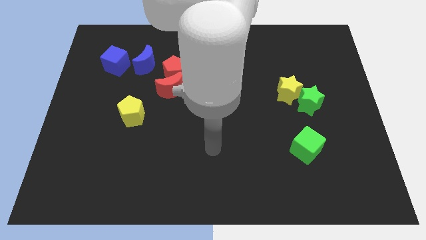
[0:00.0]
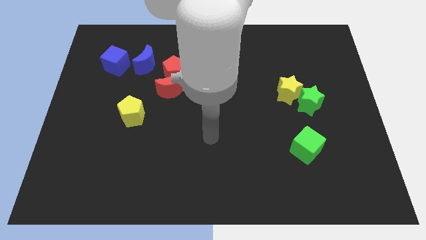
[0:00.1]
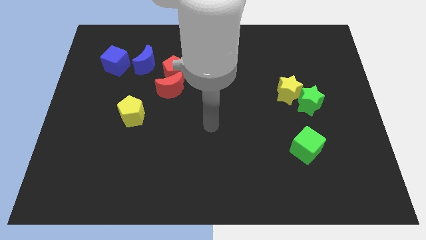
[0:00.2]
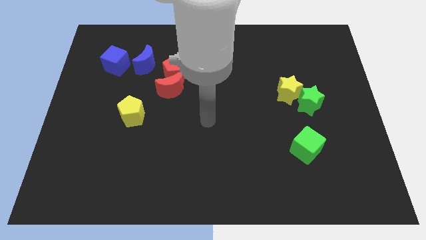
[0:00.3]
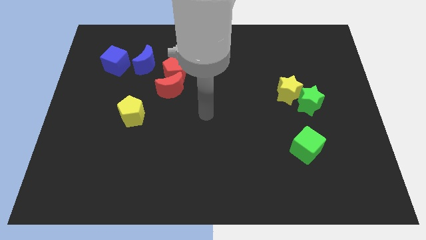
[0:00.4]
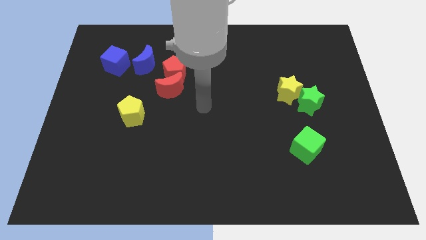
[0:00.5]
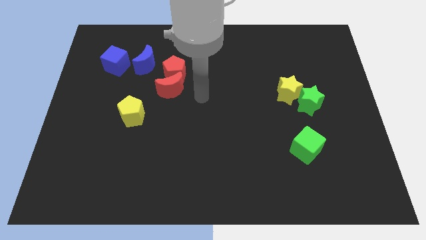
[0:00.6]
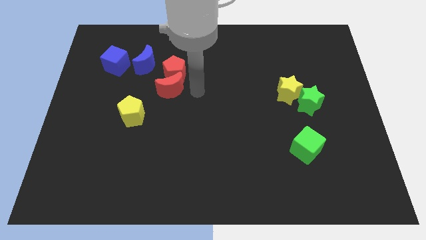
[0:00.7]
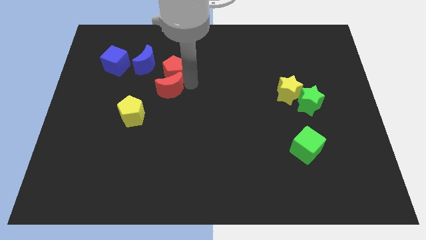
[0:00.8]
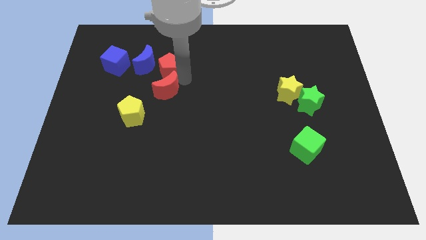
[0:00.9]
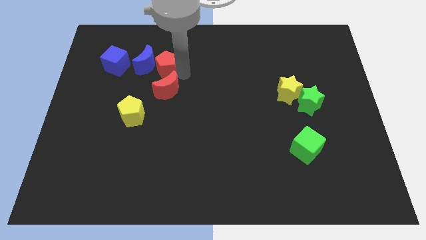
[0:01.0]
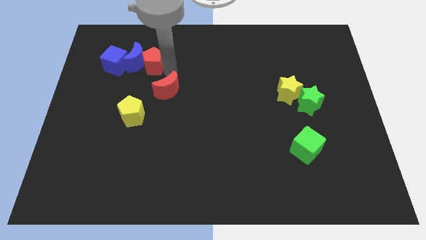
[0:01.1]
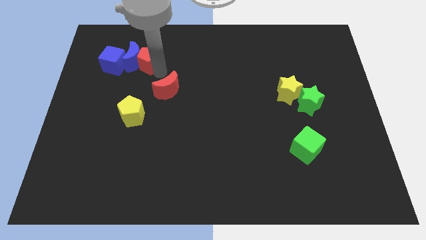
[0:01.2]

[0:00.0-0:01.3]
move the red moon away from the red pentagon

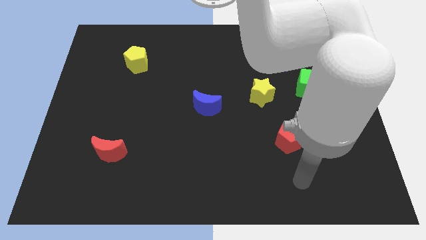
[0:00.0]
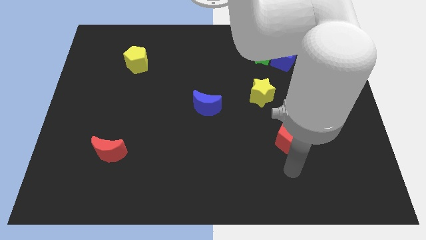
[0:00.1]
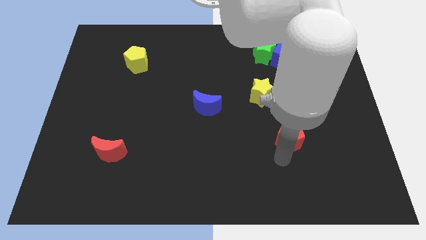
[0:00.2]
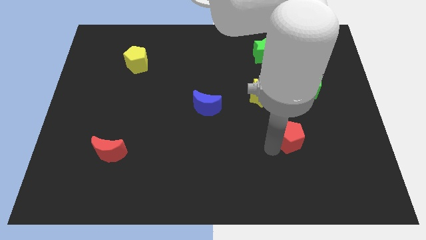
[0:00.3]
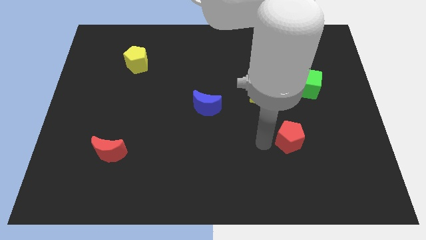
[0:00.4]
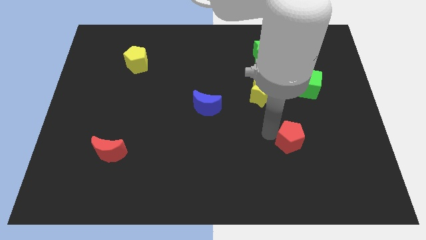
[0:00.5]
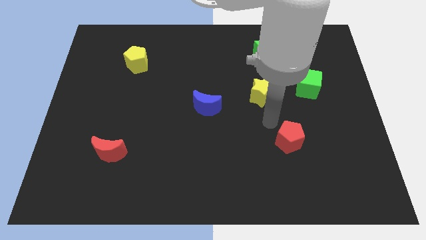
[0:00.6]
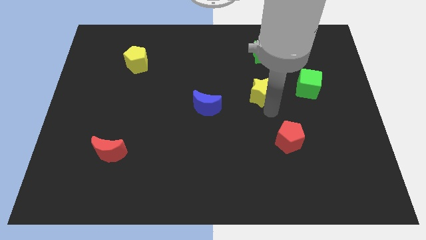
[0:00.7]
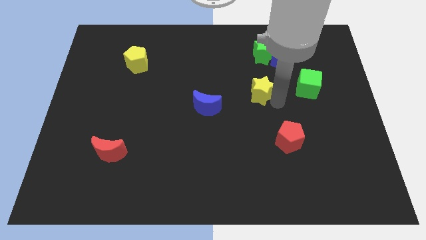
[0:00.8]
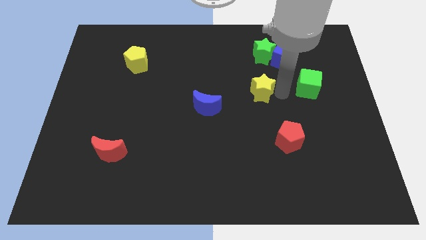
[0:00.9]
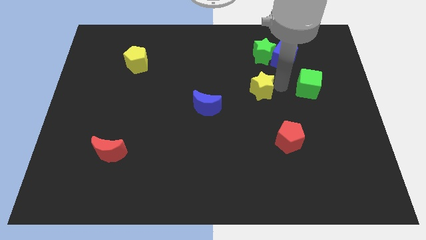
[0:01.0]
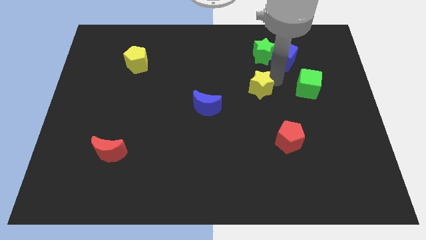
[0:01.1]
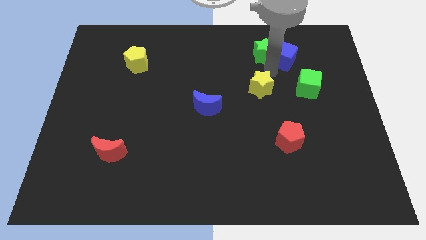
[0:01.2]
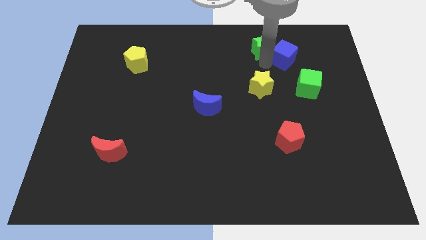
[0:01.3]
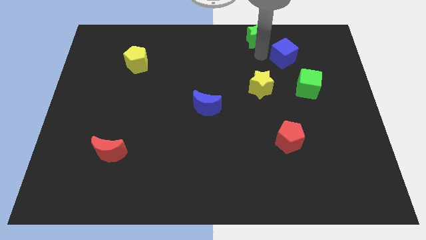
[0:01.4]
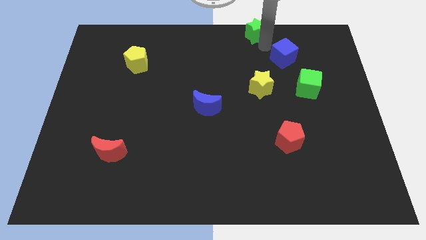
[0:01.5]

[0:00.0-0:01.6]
separate the blue cube from the green star

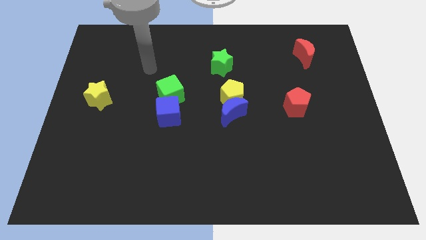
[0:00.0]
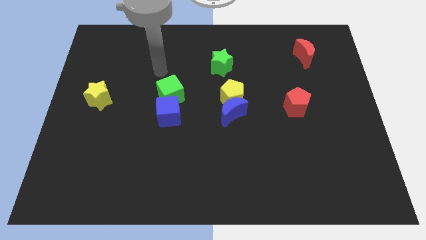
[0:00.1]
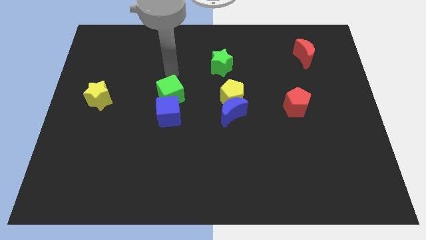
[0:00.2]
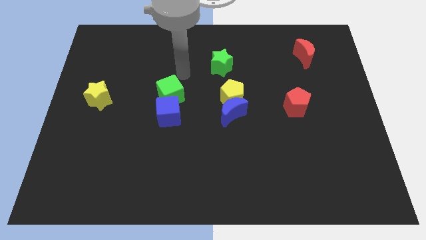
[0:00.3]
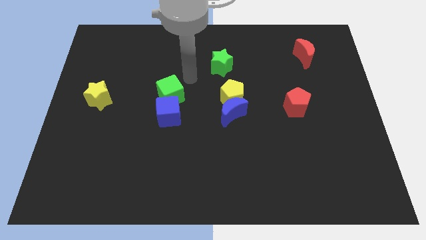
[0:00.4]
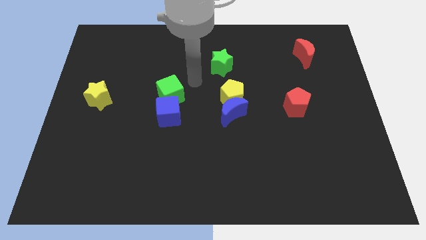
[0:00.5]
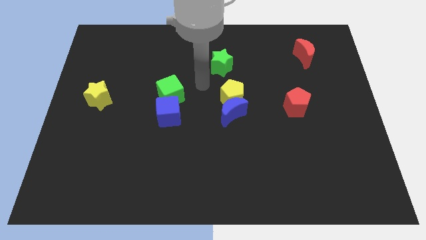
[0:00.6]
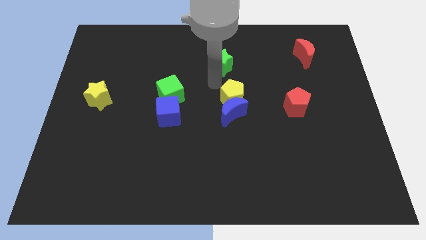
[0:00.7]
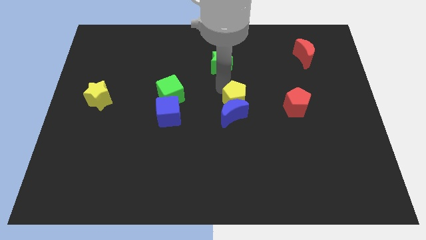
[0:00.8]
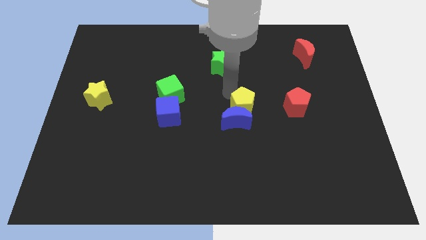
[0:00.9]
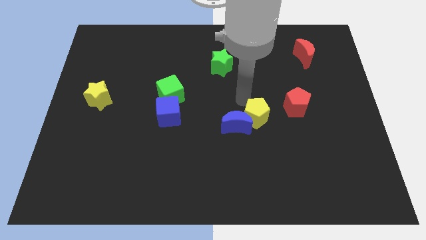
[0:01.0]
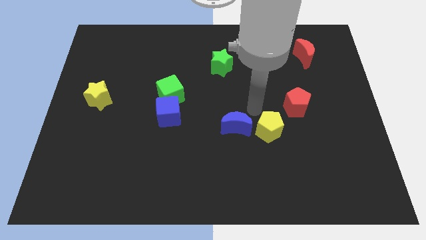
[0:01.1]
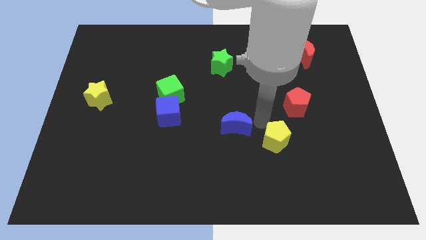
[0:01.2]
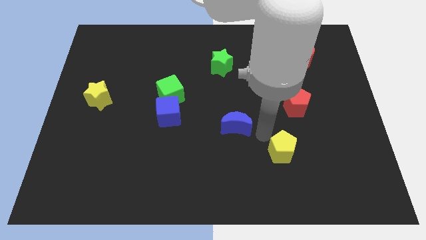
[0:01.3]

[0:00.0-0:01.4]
pull the blue moon apart from the yellow pentagon

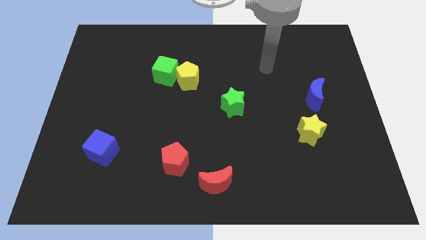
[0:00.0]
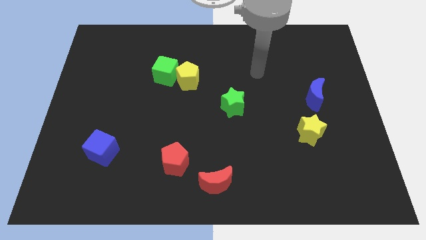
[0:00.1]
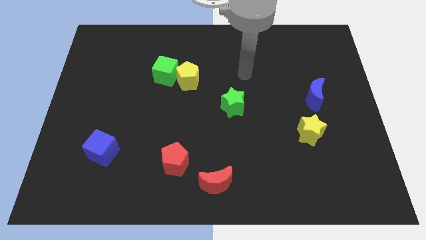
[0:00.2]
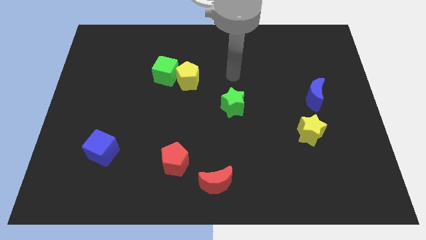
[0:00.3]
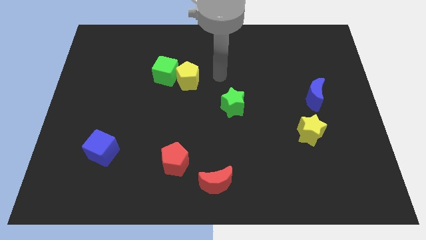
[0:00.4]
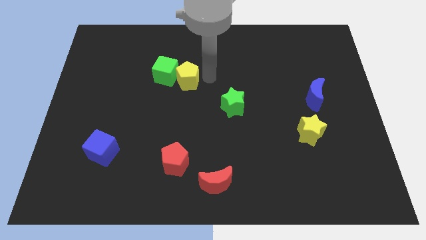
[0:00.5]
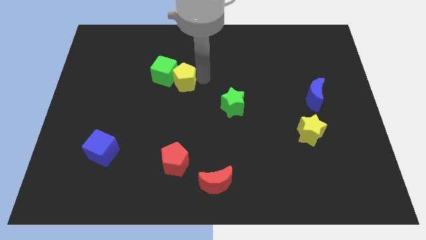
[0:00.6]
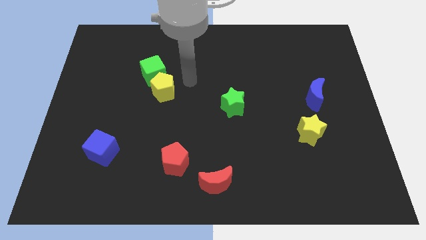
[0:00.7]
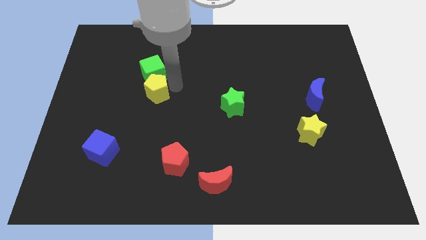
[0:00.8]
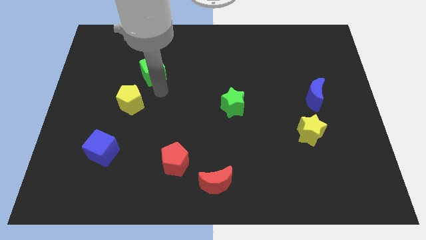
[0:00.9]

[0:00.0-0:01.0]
pull the green cube apart from the yellow pentagon

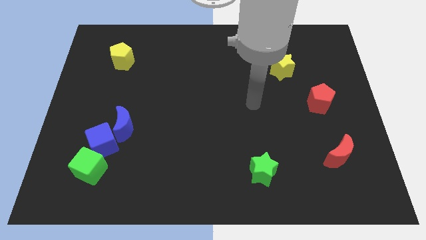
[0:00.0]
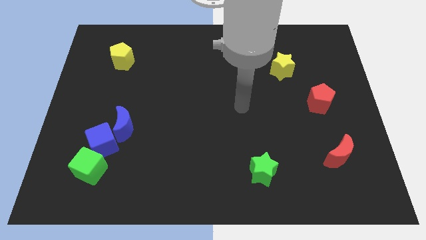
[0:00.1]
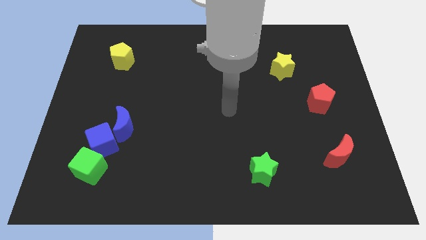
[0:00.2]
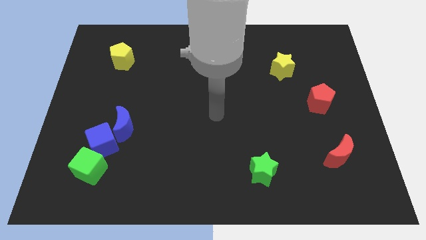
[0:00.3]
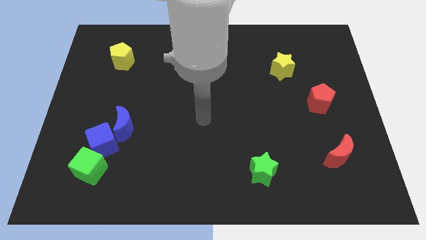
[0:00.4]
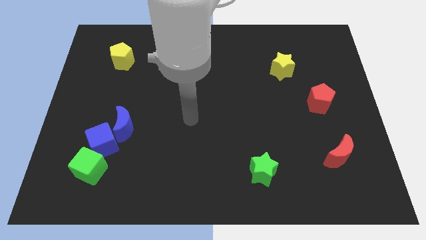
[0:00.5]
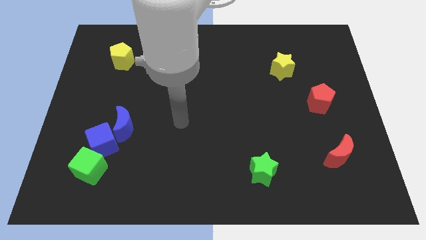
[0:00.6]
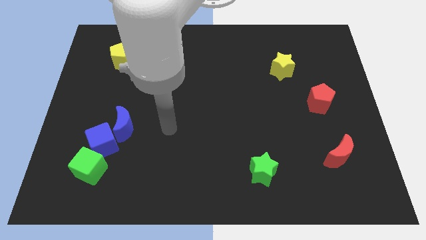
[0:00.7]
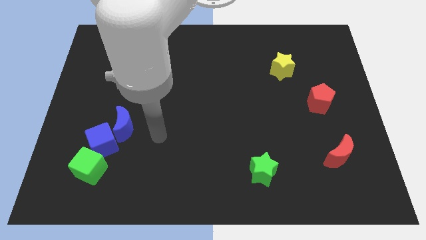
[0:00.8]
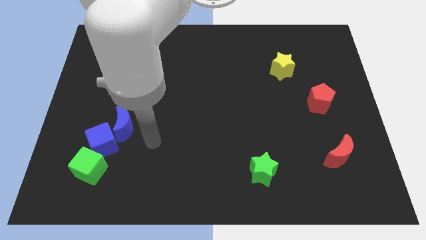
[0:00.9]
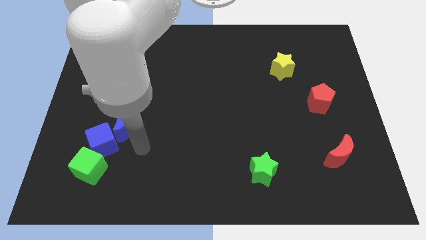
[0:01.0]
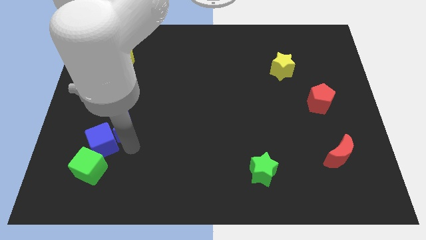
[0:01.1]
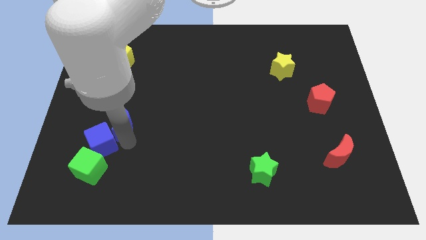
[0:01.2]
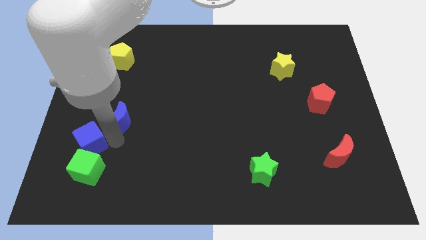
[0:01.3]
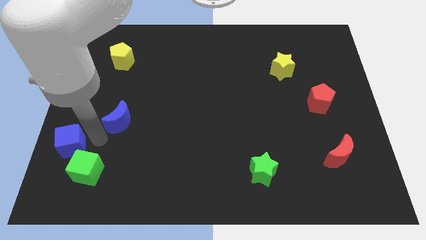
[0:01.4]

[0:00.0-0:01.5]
move the blue moon away from the blue cube

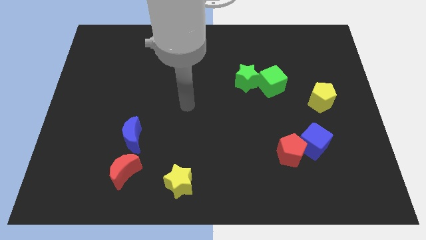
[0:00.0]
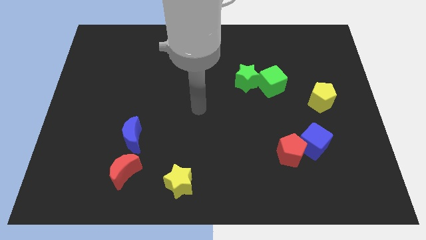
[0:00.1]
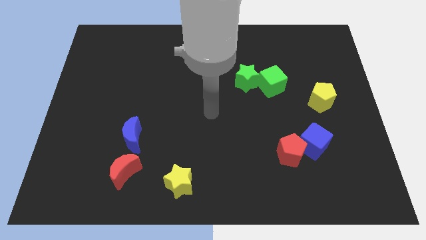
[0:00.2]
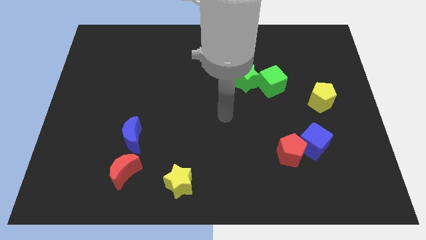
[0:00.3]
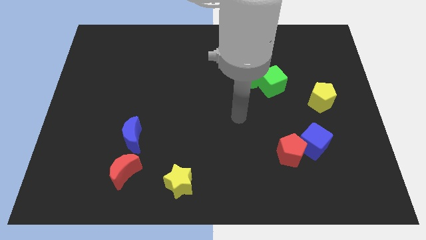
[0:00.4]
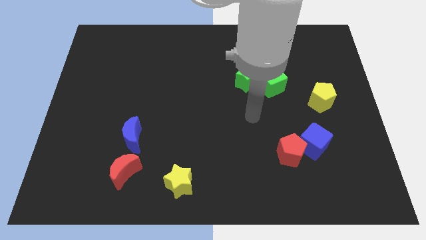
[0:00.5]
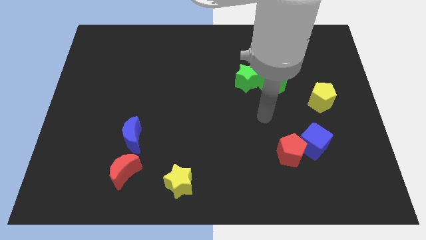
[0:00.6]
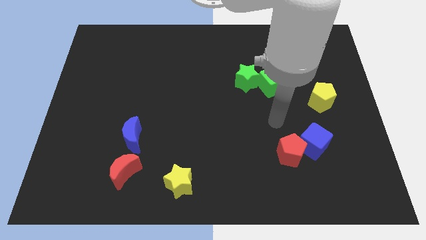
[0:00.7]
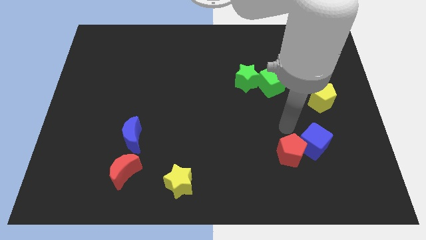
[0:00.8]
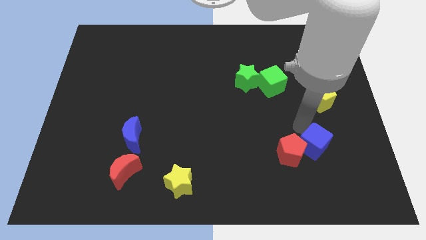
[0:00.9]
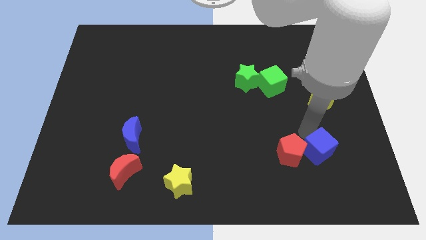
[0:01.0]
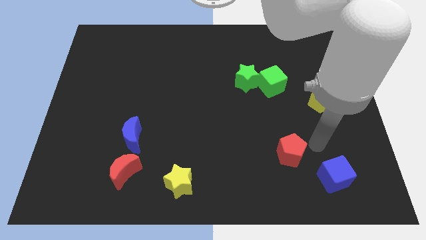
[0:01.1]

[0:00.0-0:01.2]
separate the red pentagon from the blue cube

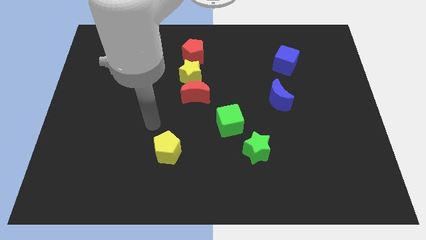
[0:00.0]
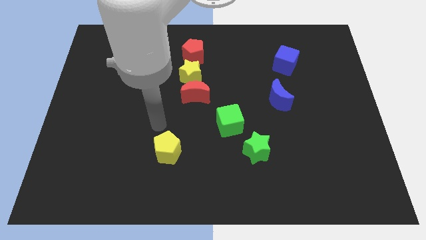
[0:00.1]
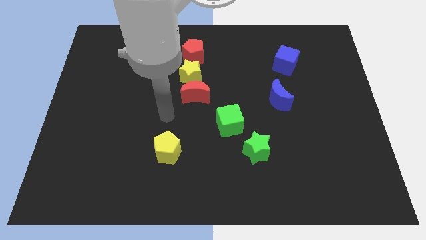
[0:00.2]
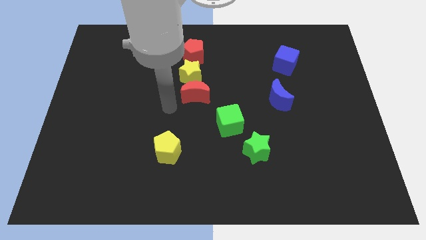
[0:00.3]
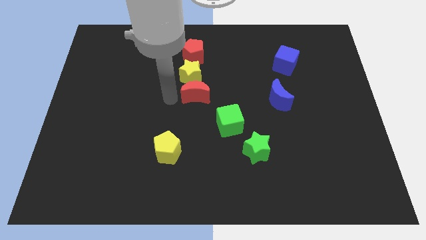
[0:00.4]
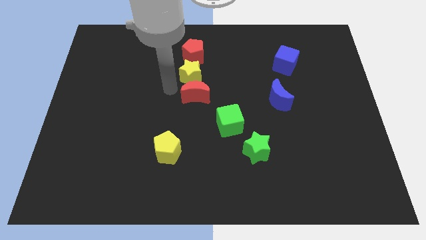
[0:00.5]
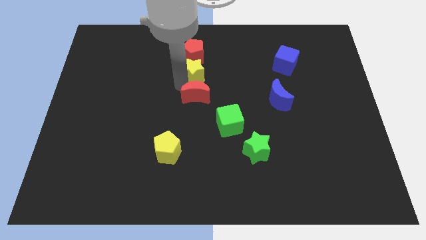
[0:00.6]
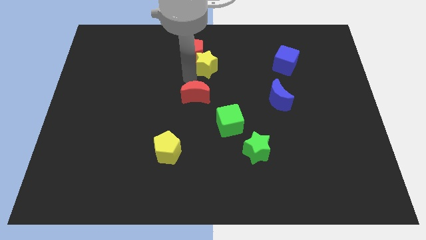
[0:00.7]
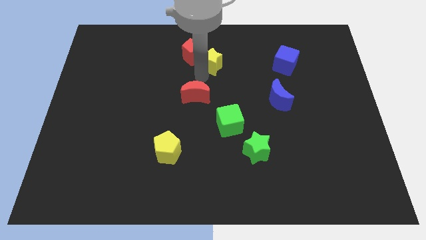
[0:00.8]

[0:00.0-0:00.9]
separate the red moon from the yellow star

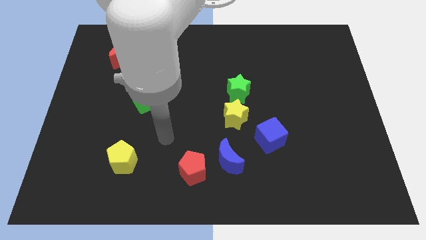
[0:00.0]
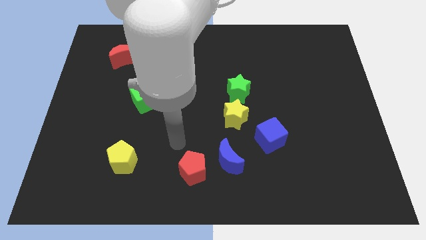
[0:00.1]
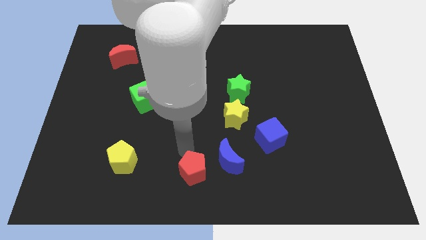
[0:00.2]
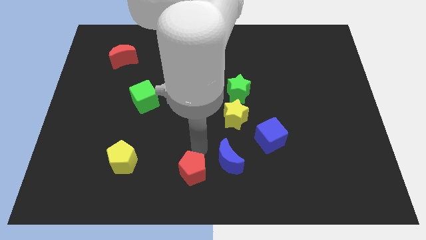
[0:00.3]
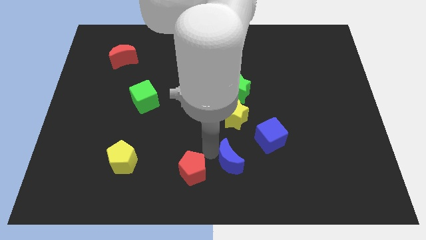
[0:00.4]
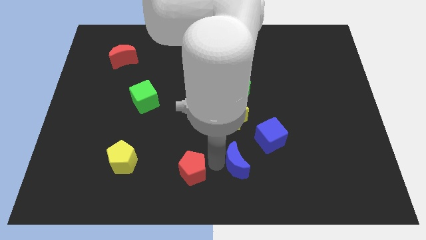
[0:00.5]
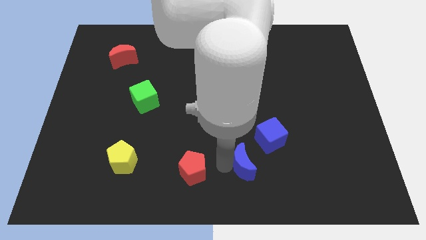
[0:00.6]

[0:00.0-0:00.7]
pull the red pentagon apart from the blue moon
